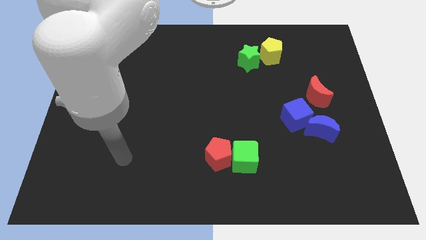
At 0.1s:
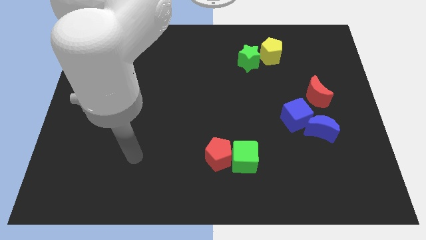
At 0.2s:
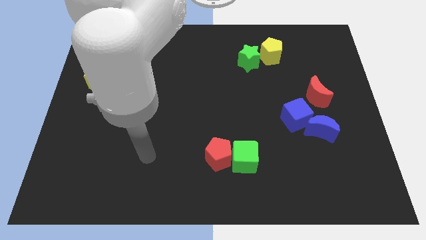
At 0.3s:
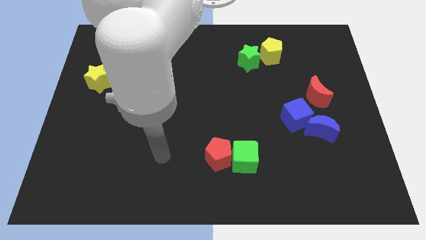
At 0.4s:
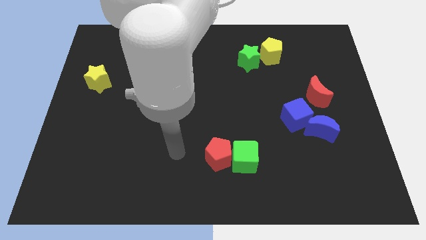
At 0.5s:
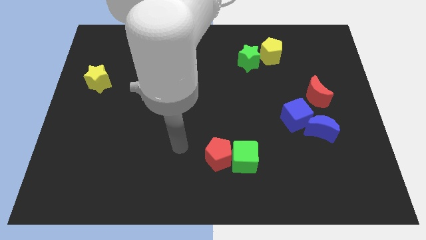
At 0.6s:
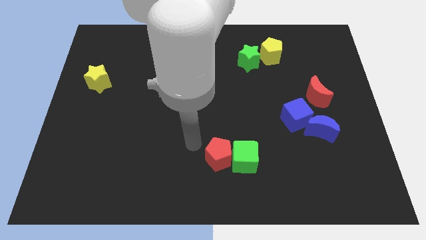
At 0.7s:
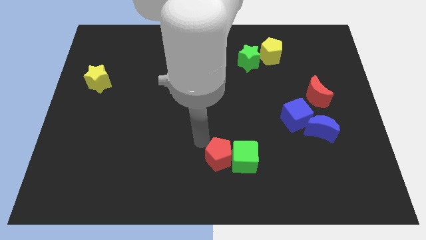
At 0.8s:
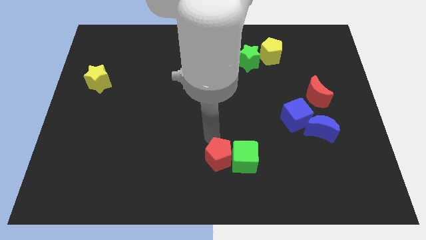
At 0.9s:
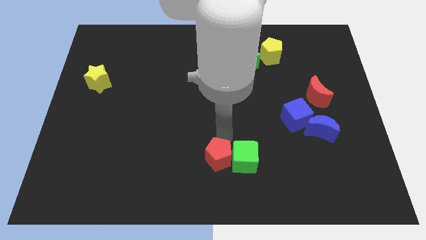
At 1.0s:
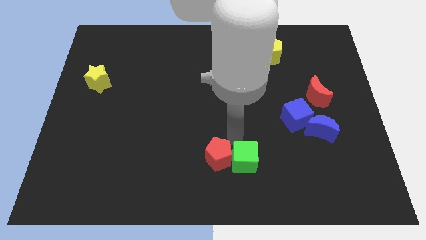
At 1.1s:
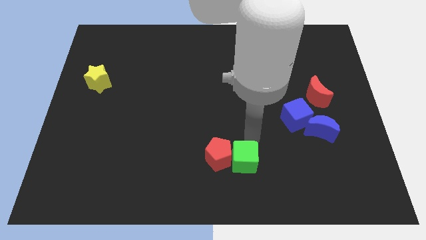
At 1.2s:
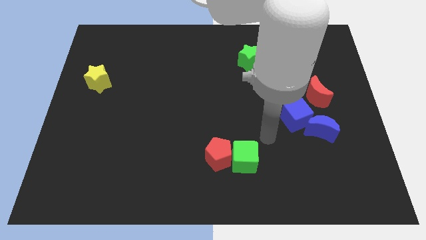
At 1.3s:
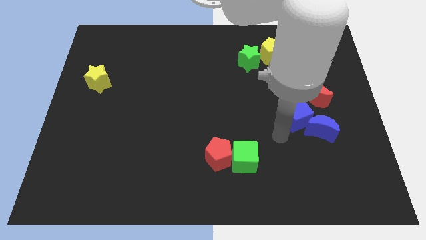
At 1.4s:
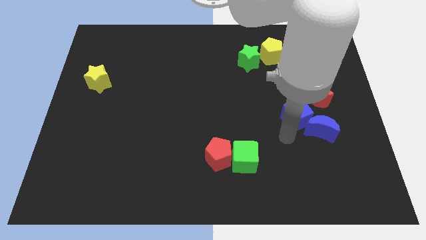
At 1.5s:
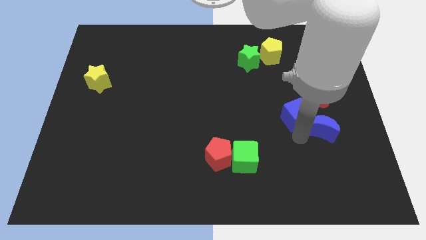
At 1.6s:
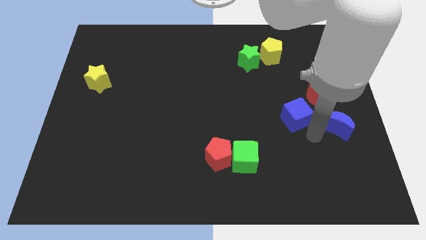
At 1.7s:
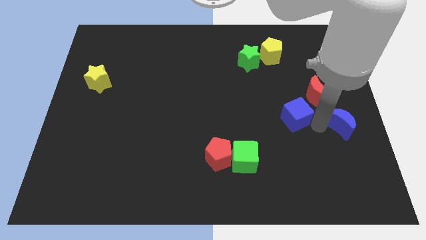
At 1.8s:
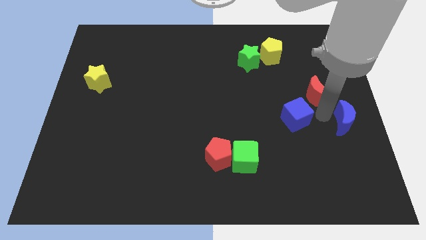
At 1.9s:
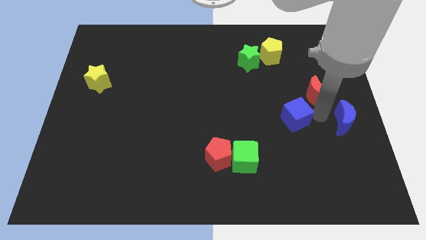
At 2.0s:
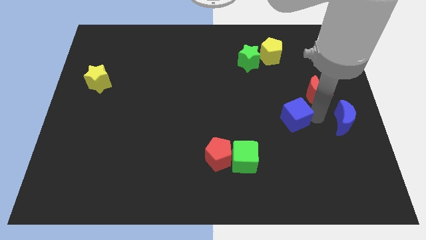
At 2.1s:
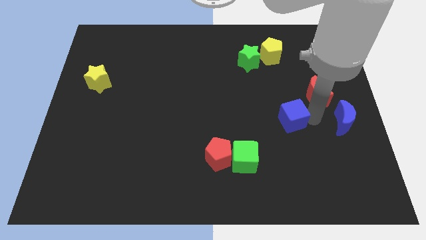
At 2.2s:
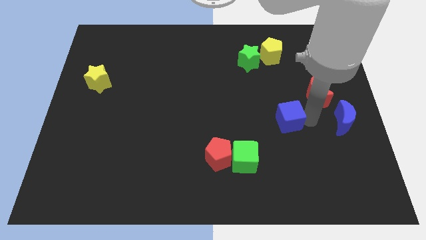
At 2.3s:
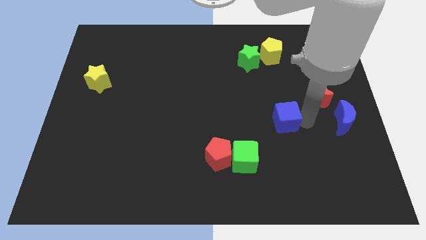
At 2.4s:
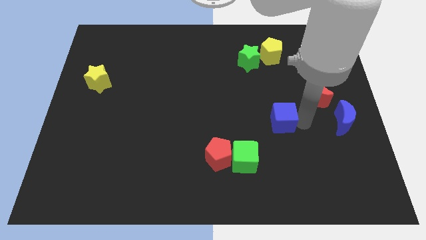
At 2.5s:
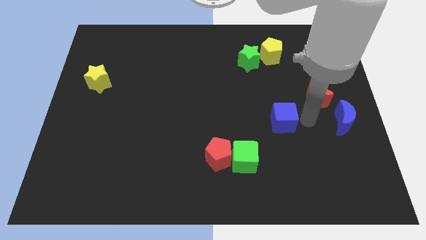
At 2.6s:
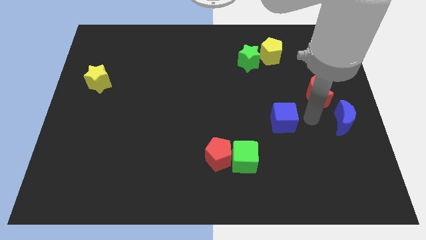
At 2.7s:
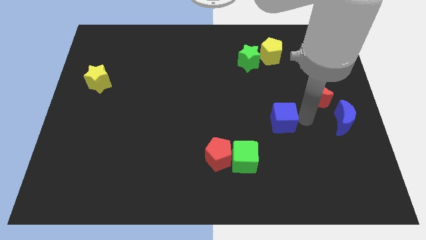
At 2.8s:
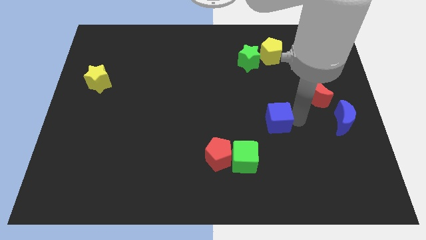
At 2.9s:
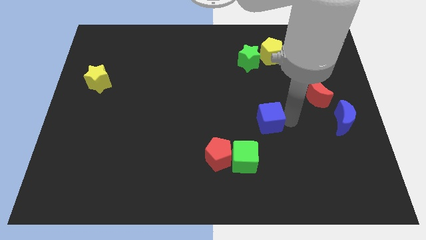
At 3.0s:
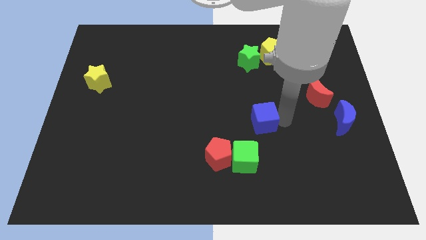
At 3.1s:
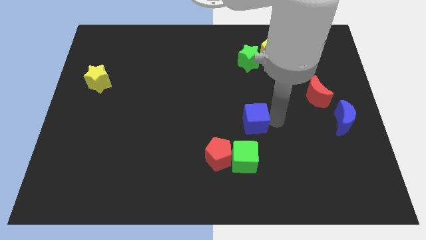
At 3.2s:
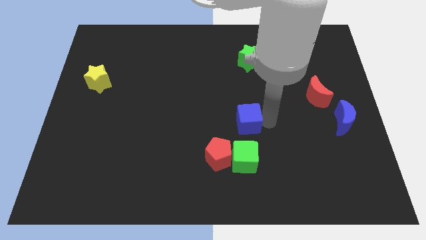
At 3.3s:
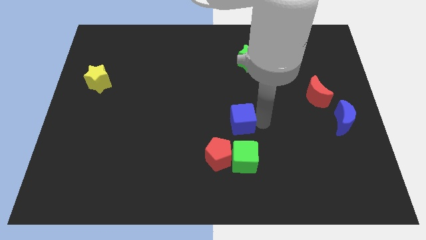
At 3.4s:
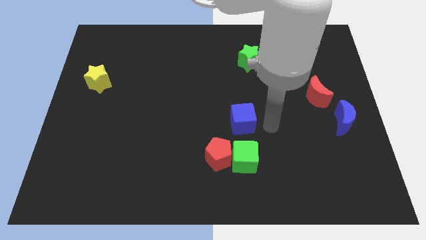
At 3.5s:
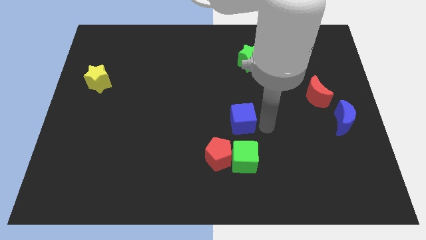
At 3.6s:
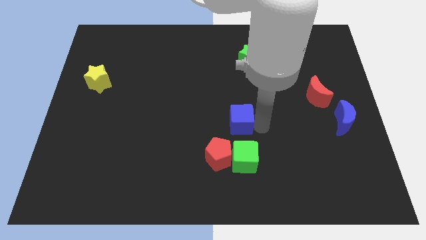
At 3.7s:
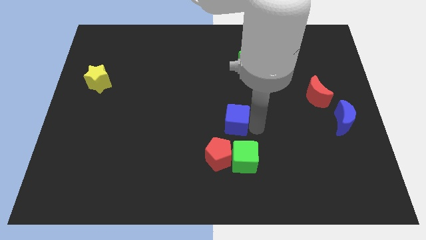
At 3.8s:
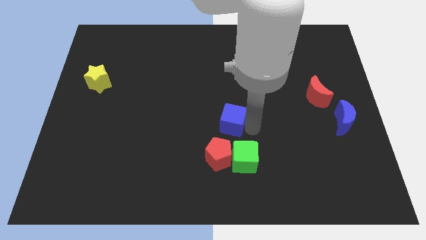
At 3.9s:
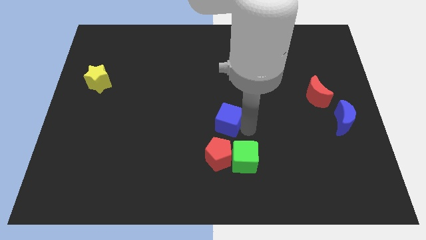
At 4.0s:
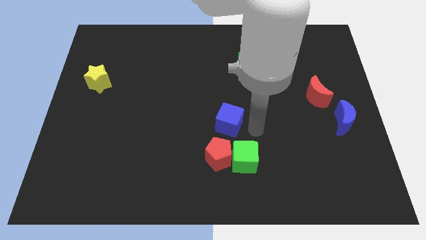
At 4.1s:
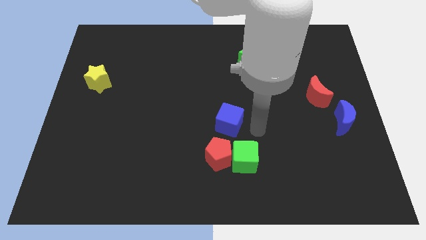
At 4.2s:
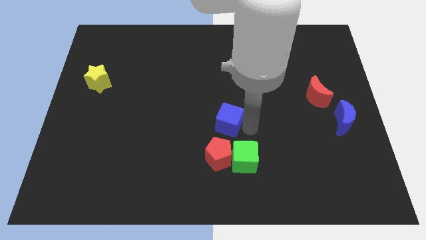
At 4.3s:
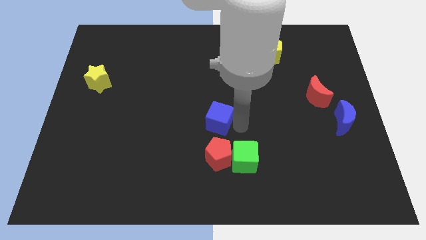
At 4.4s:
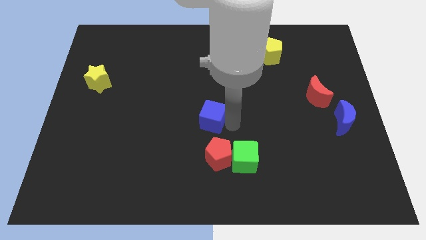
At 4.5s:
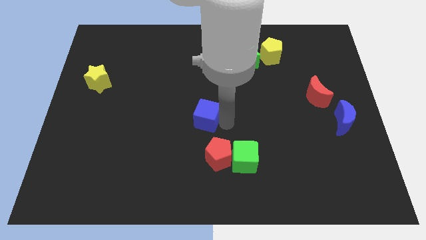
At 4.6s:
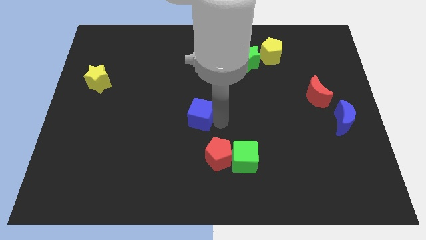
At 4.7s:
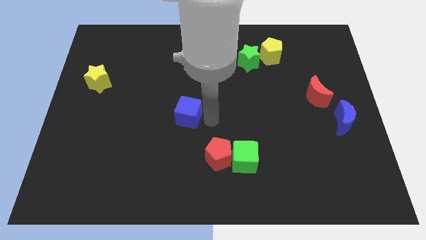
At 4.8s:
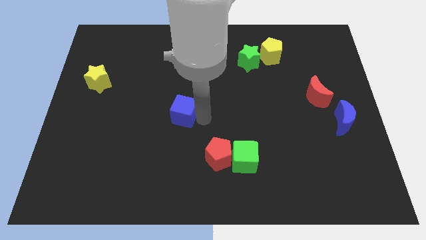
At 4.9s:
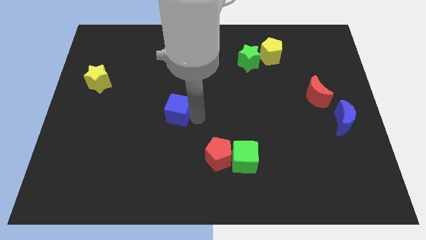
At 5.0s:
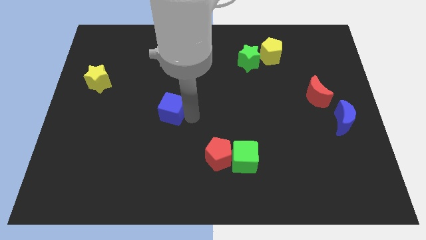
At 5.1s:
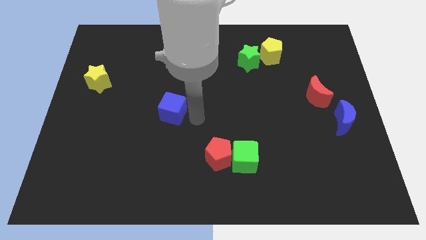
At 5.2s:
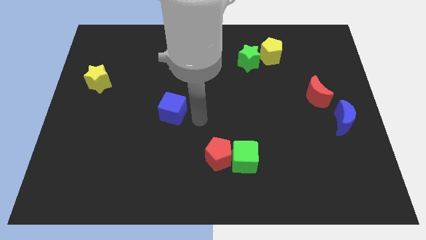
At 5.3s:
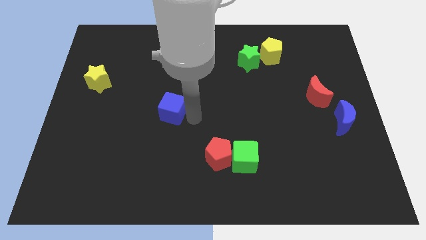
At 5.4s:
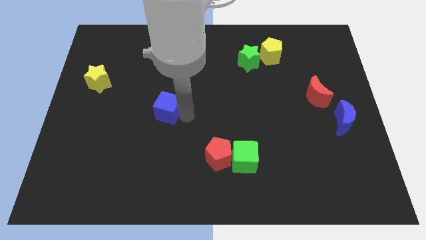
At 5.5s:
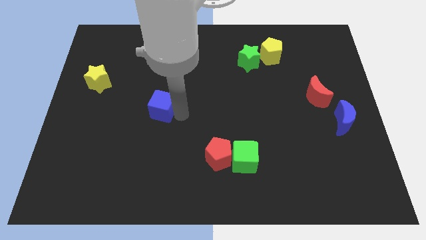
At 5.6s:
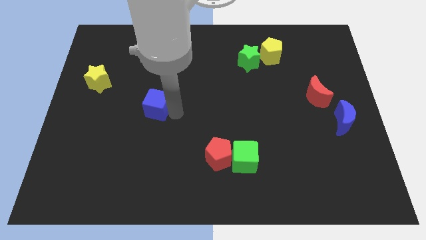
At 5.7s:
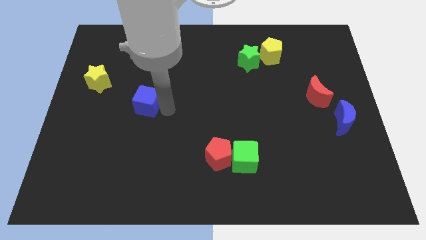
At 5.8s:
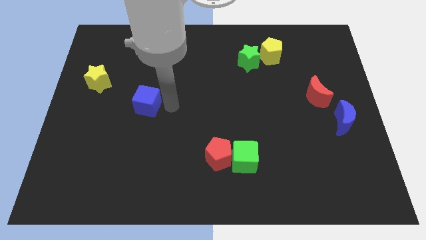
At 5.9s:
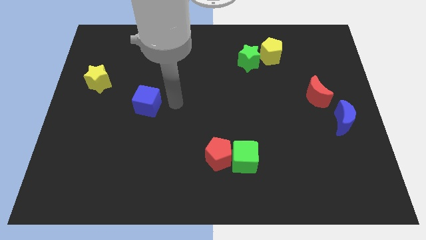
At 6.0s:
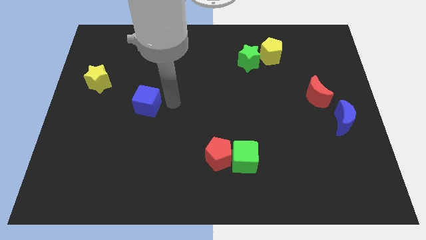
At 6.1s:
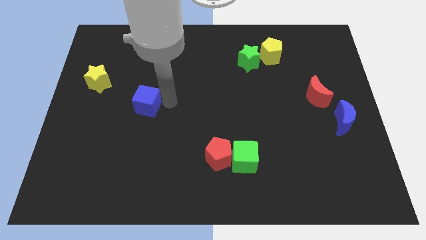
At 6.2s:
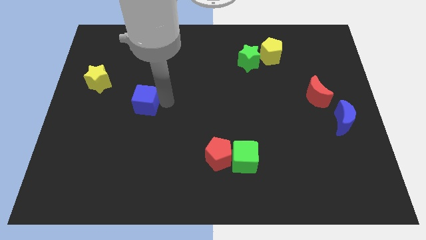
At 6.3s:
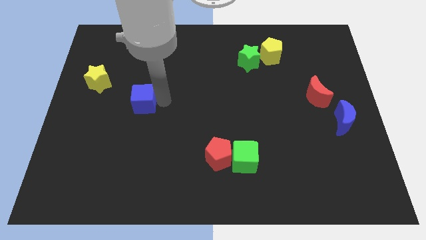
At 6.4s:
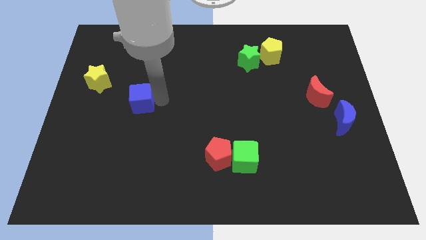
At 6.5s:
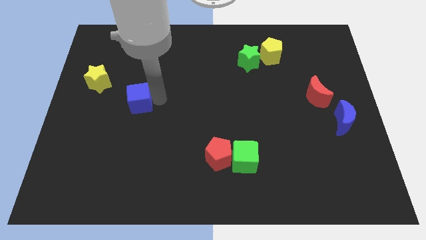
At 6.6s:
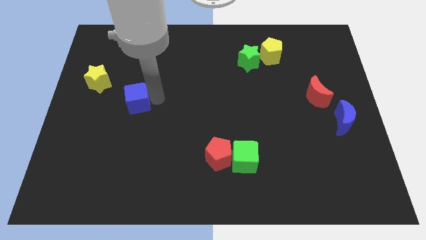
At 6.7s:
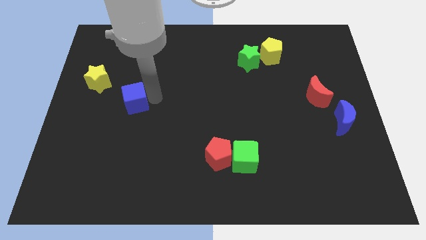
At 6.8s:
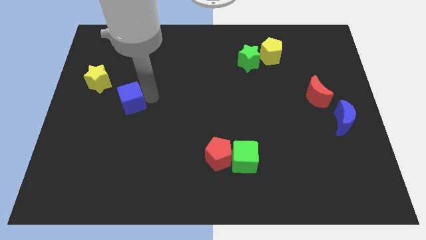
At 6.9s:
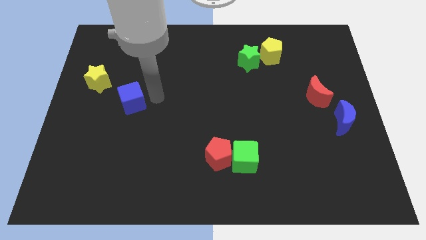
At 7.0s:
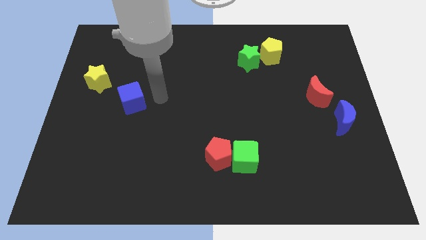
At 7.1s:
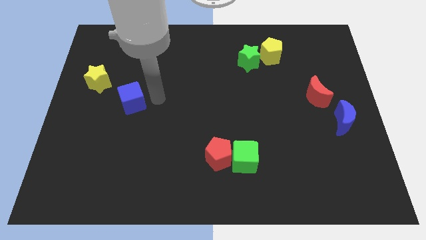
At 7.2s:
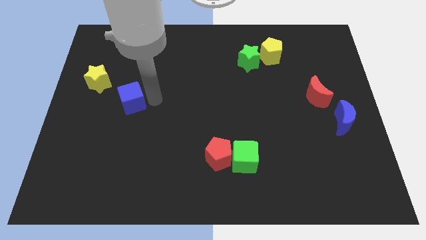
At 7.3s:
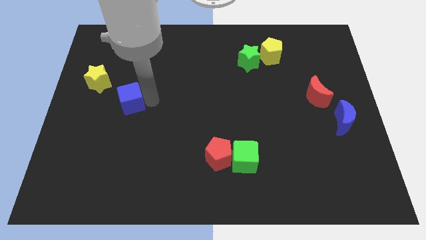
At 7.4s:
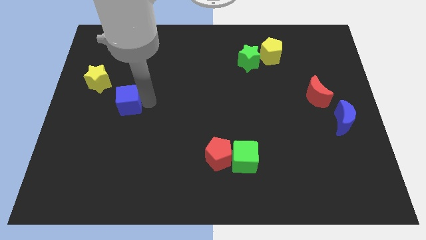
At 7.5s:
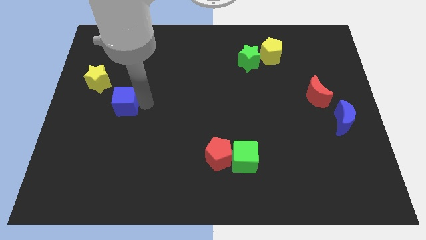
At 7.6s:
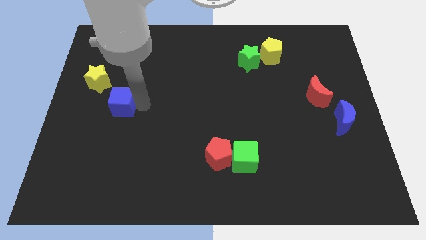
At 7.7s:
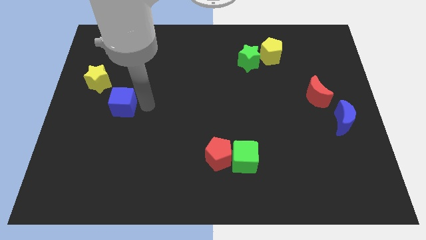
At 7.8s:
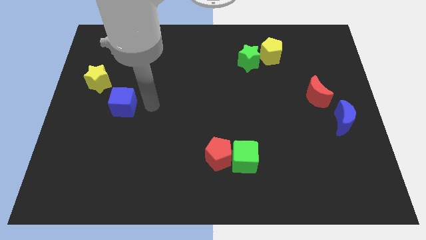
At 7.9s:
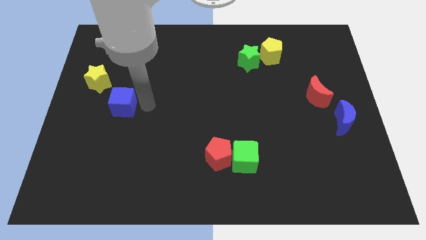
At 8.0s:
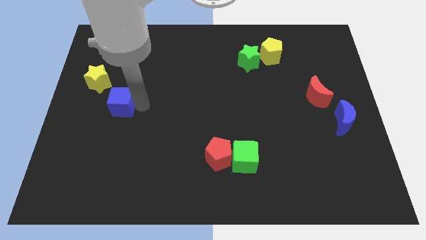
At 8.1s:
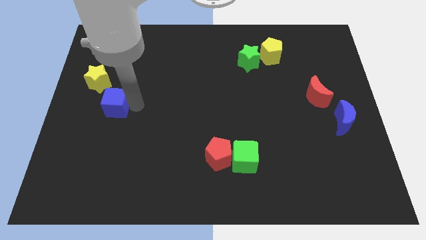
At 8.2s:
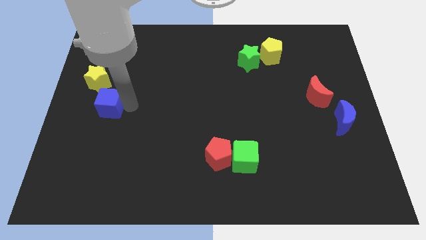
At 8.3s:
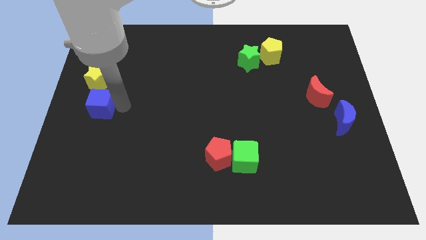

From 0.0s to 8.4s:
put the blue cube to the center left
